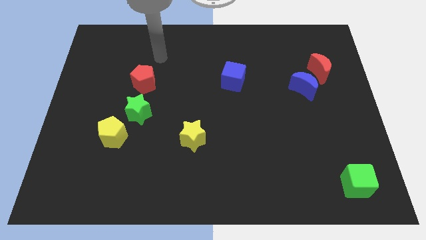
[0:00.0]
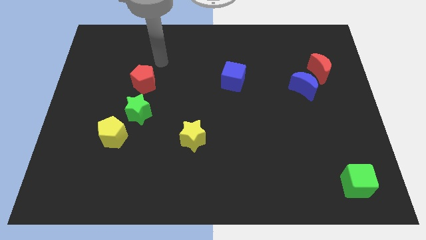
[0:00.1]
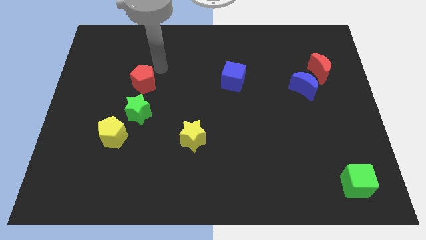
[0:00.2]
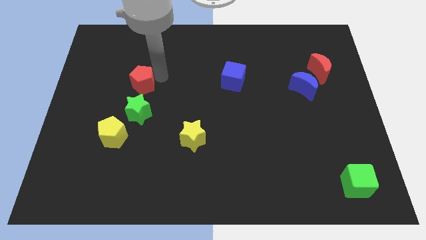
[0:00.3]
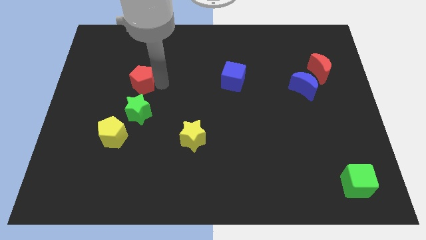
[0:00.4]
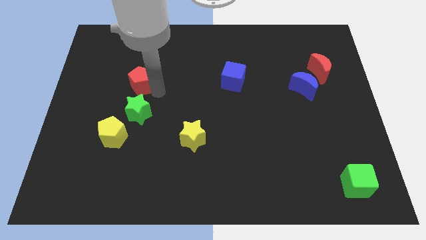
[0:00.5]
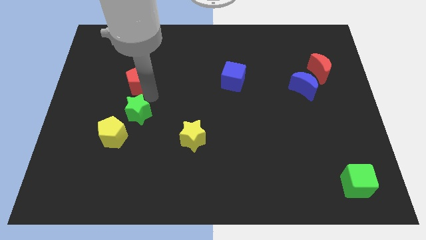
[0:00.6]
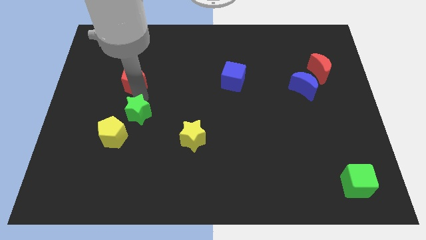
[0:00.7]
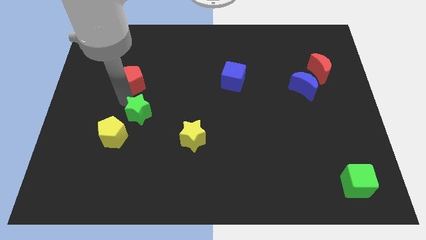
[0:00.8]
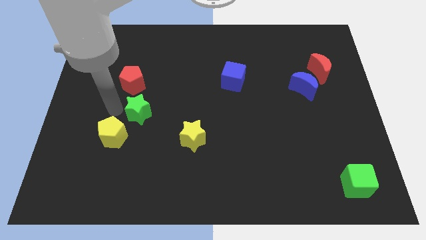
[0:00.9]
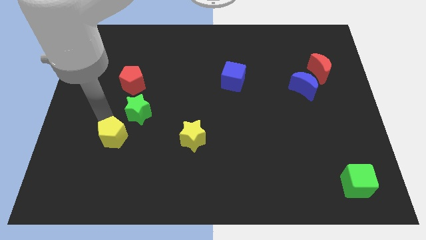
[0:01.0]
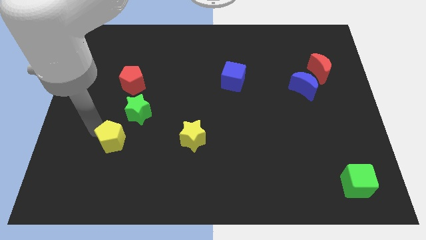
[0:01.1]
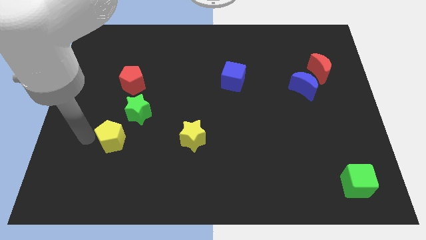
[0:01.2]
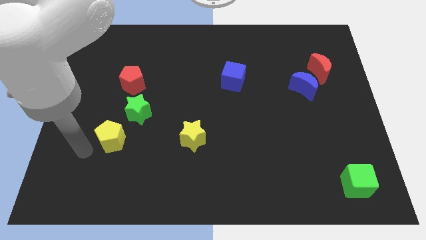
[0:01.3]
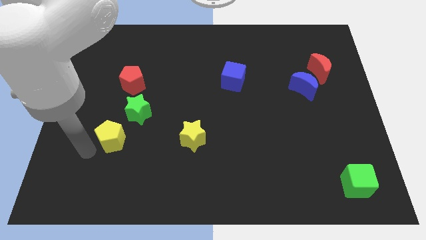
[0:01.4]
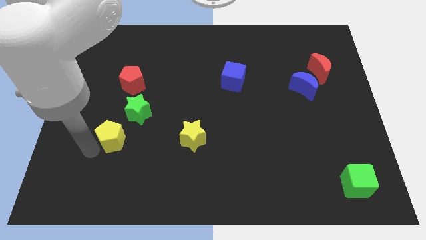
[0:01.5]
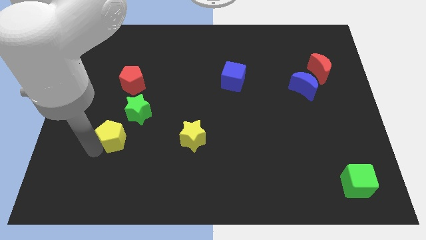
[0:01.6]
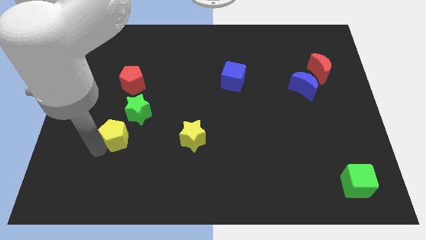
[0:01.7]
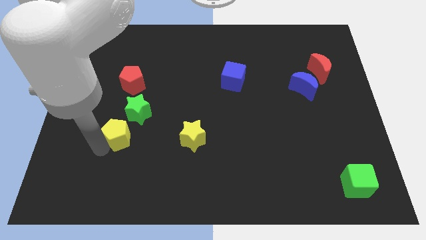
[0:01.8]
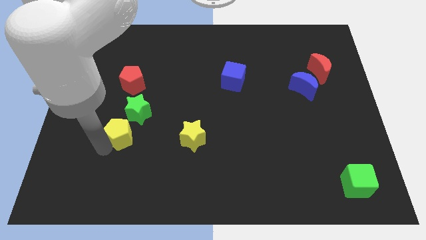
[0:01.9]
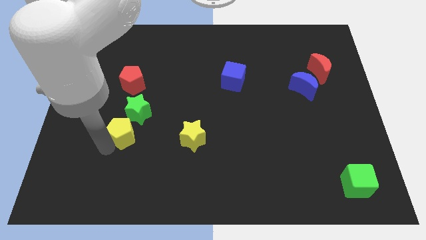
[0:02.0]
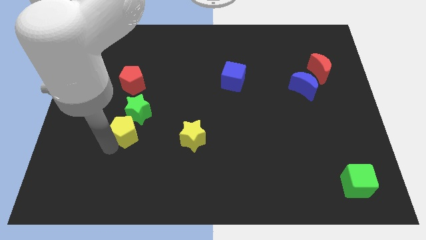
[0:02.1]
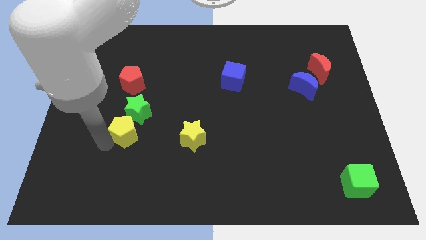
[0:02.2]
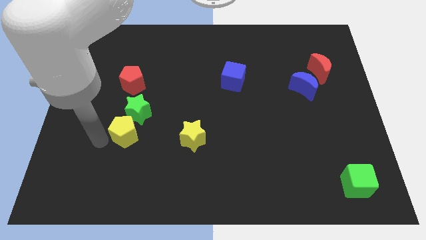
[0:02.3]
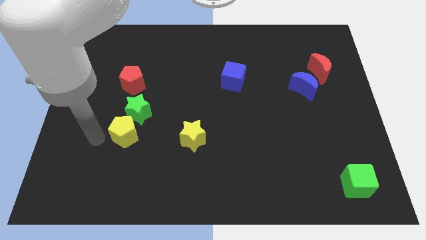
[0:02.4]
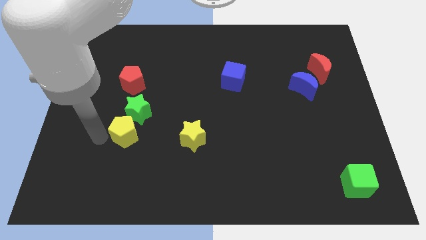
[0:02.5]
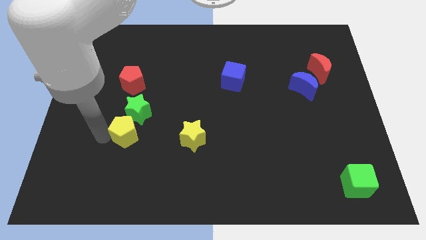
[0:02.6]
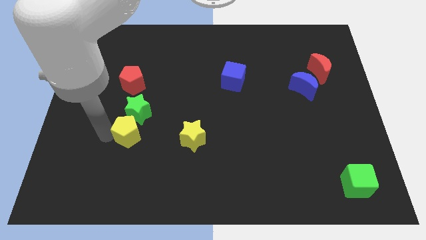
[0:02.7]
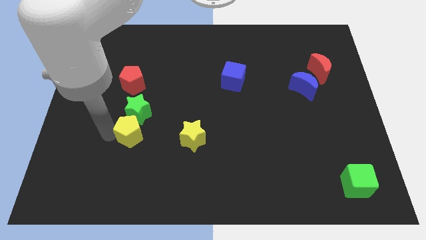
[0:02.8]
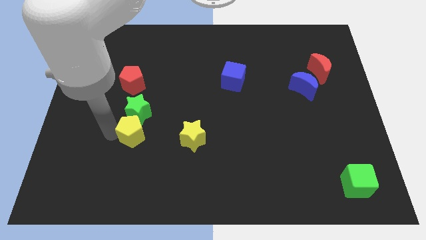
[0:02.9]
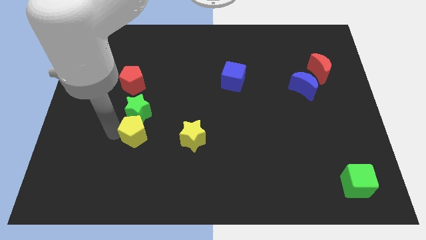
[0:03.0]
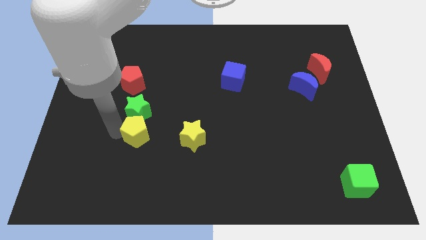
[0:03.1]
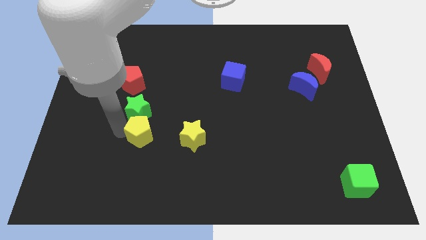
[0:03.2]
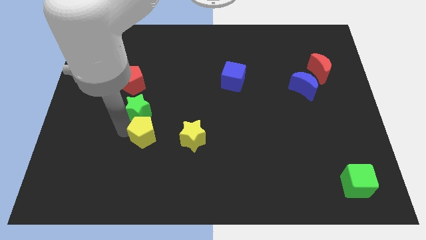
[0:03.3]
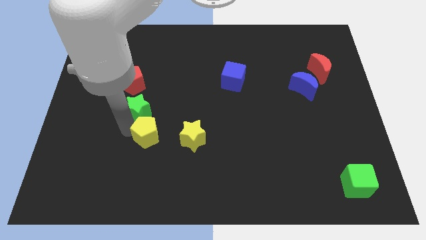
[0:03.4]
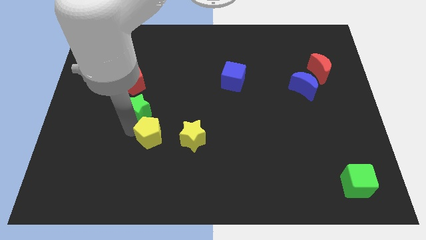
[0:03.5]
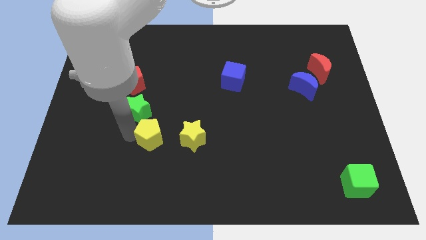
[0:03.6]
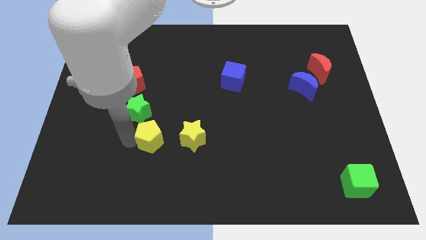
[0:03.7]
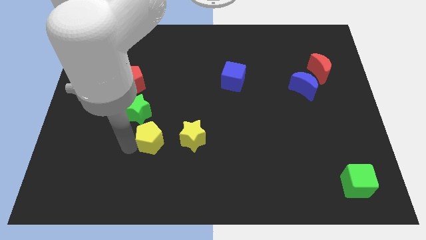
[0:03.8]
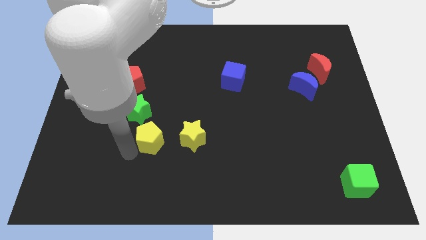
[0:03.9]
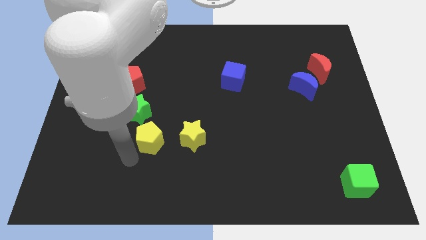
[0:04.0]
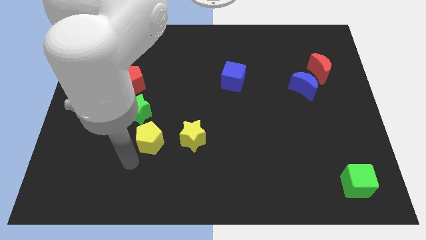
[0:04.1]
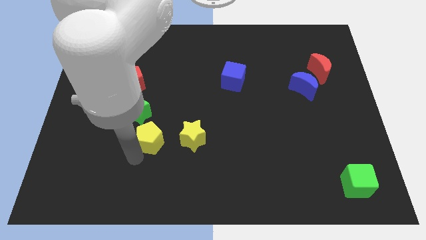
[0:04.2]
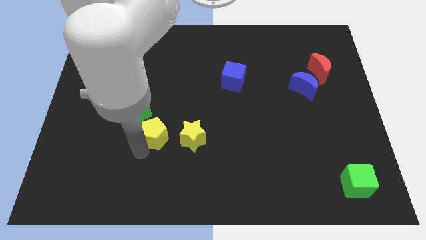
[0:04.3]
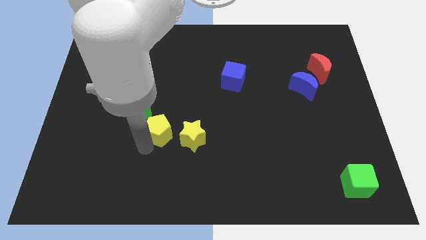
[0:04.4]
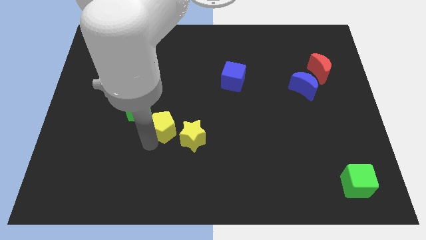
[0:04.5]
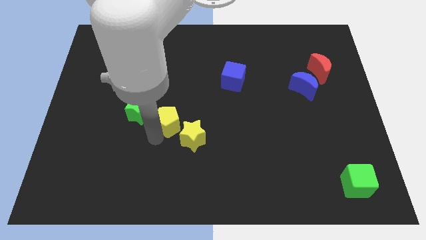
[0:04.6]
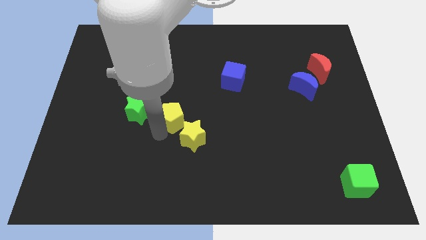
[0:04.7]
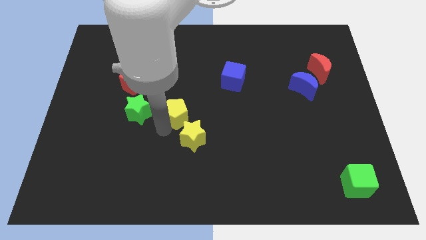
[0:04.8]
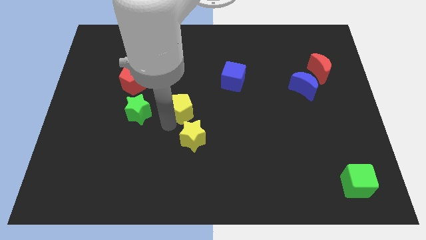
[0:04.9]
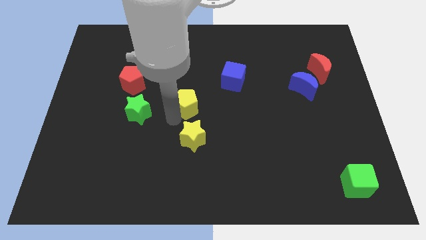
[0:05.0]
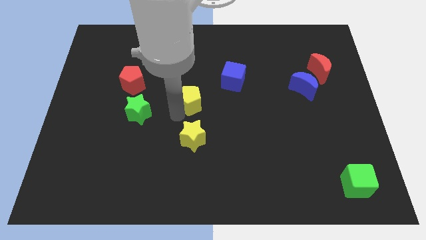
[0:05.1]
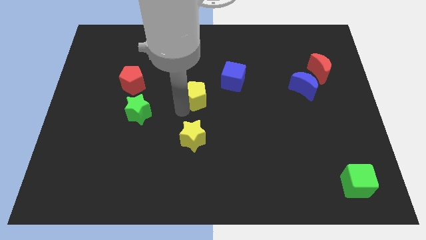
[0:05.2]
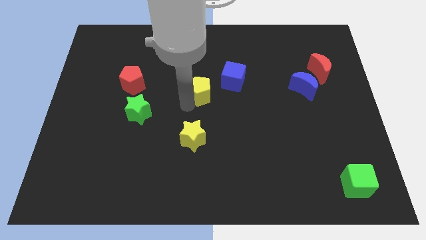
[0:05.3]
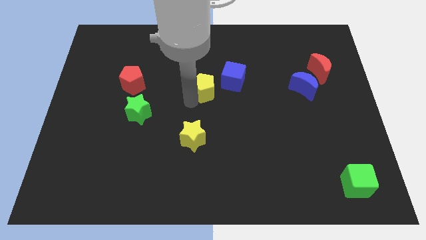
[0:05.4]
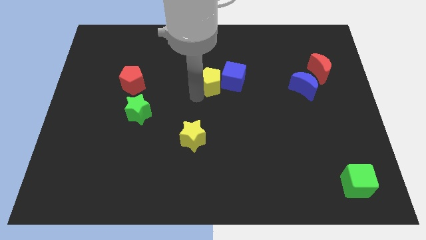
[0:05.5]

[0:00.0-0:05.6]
slide the yellow pentagon close to the blue cube

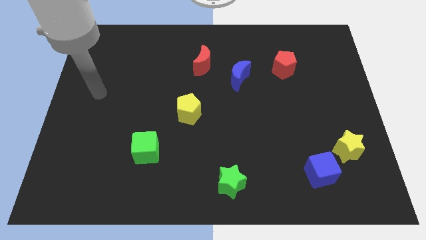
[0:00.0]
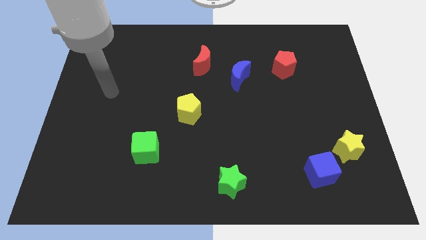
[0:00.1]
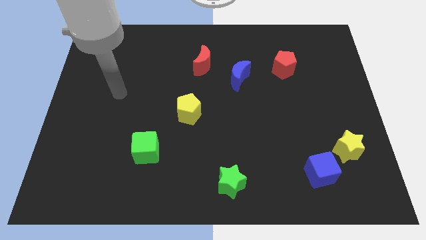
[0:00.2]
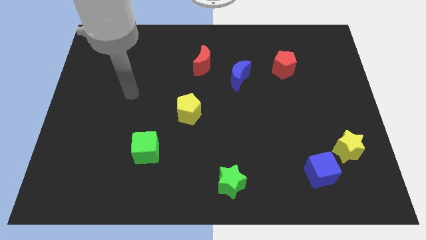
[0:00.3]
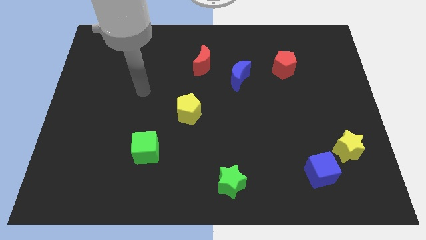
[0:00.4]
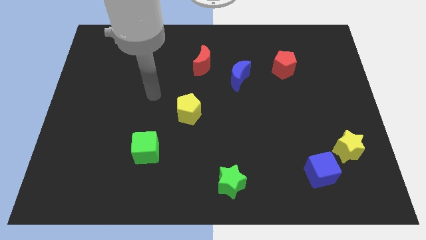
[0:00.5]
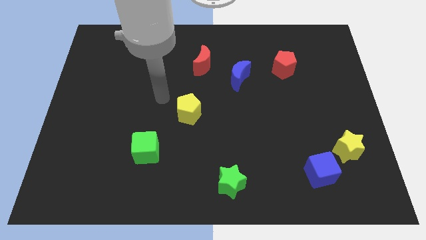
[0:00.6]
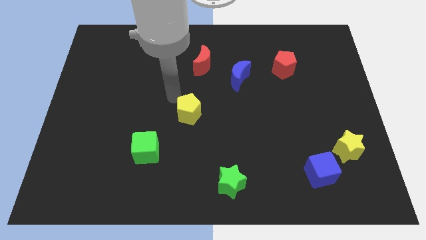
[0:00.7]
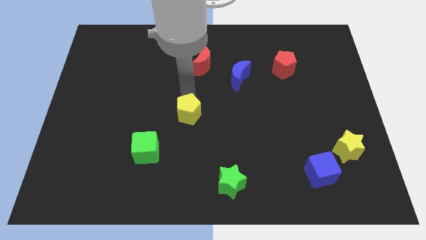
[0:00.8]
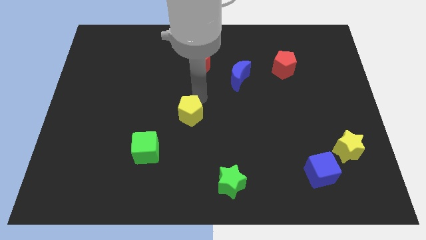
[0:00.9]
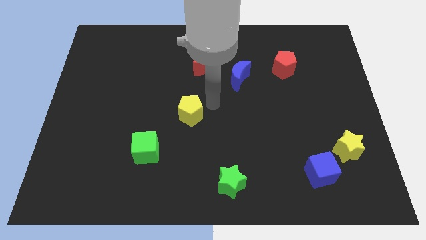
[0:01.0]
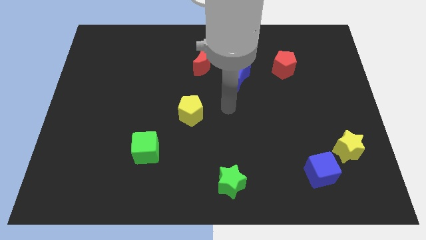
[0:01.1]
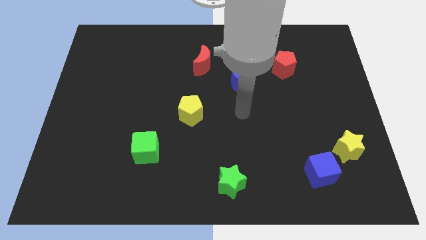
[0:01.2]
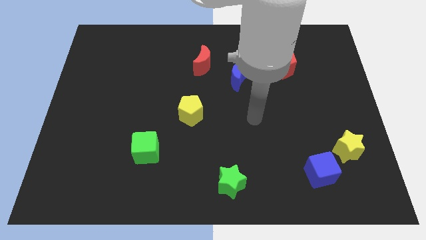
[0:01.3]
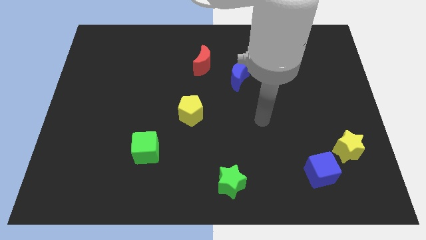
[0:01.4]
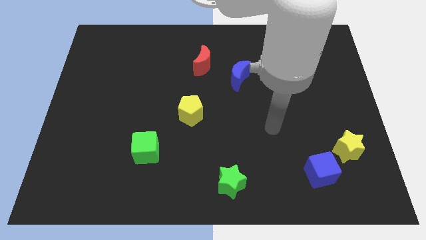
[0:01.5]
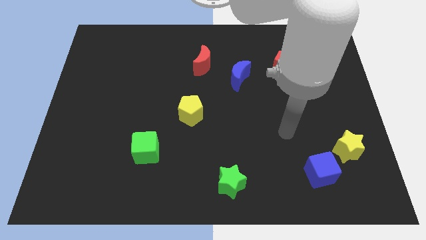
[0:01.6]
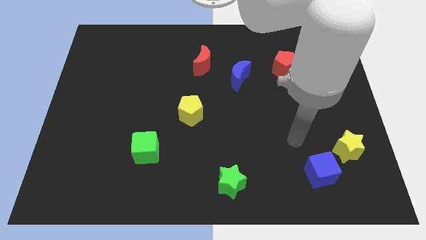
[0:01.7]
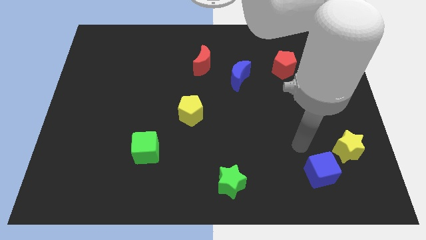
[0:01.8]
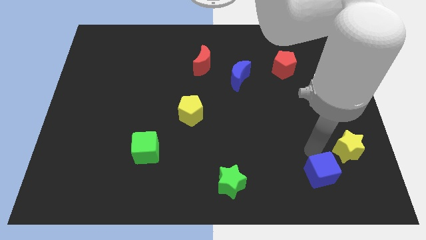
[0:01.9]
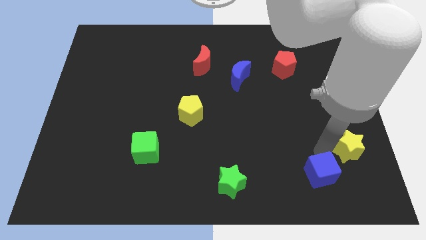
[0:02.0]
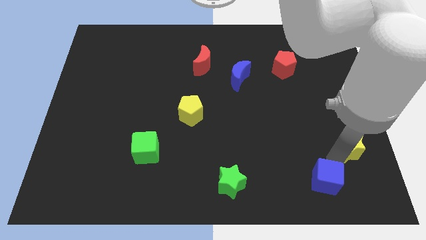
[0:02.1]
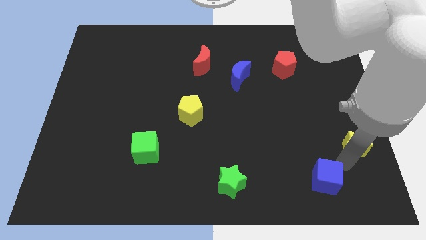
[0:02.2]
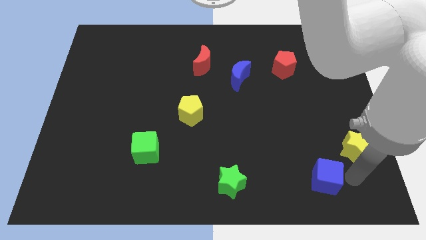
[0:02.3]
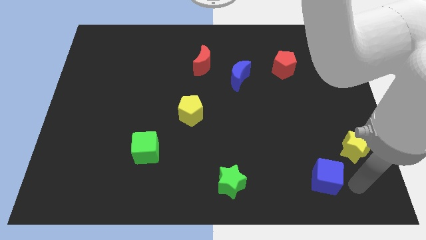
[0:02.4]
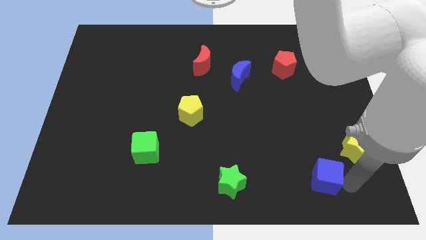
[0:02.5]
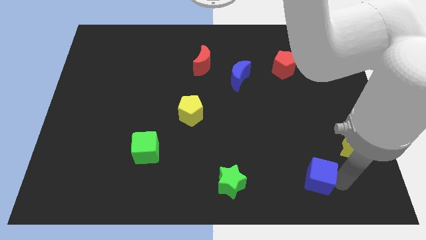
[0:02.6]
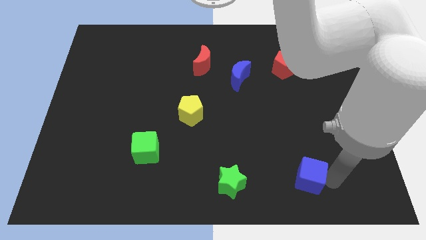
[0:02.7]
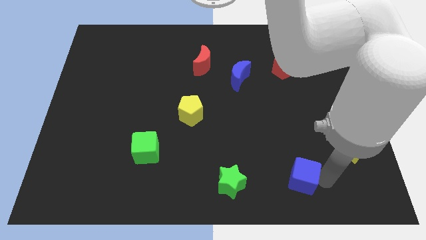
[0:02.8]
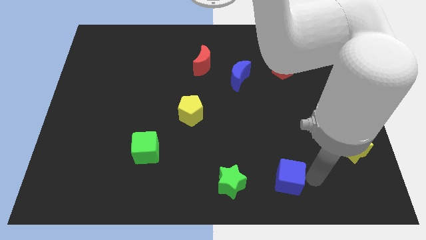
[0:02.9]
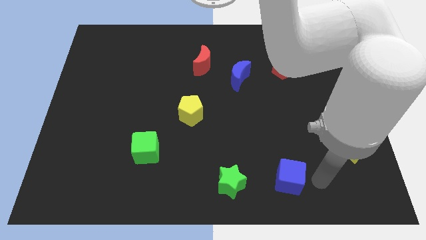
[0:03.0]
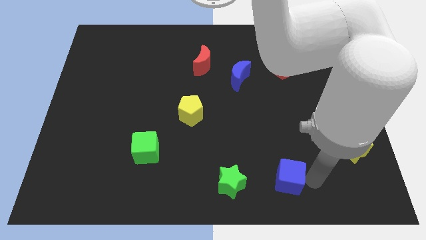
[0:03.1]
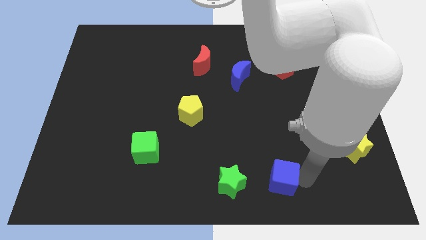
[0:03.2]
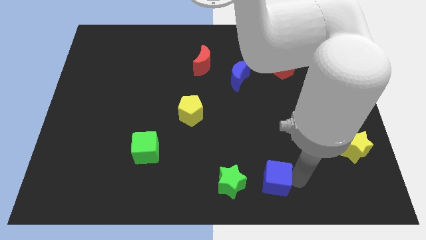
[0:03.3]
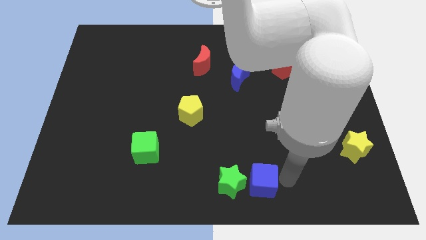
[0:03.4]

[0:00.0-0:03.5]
slide the blue cube to the green star
